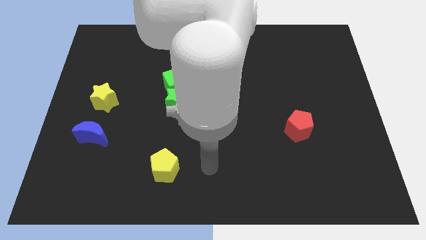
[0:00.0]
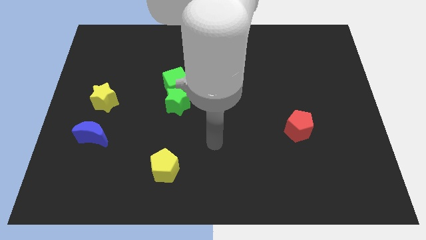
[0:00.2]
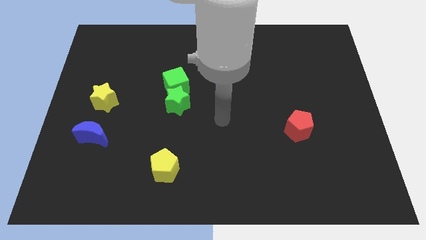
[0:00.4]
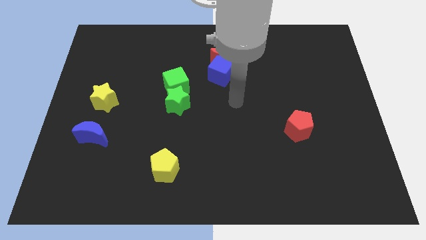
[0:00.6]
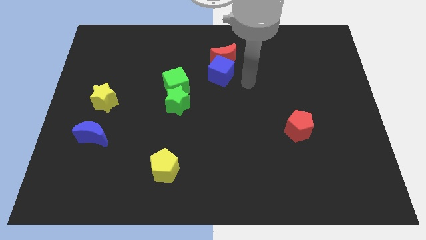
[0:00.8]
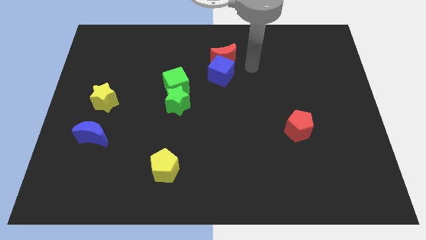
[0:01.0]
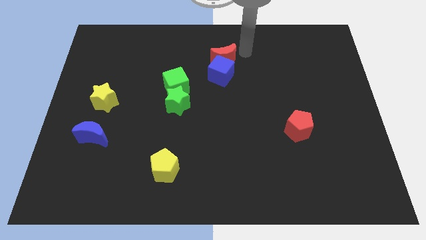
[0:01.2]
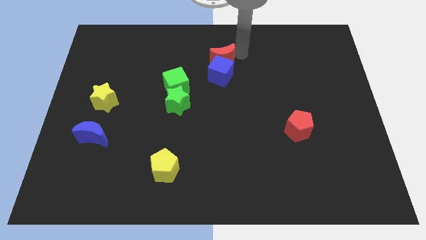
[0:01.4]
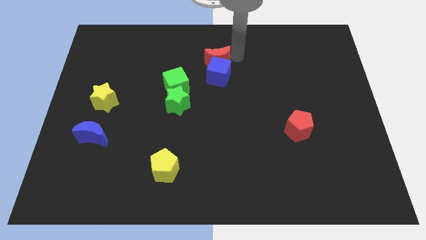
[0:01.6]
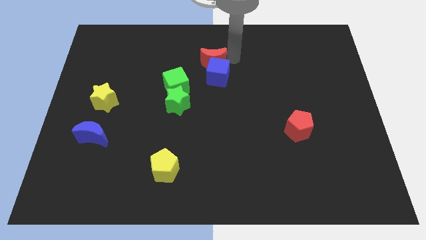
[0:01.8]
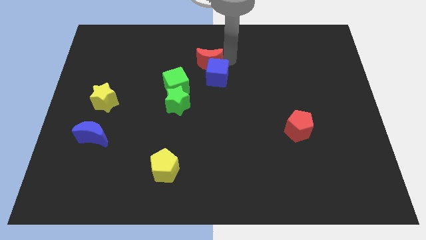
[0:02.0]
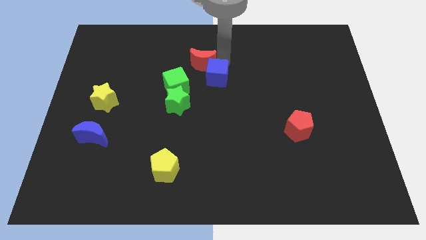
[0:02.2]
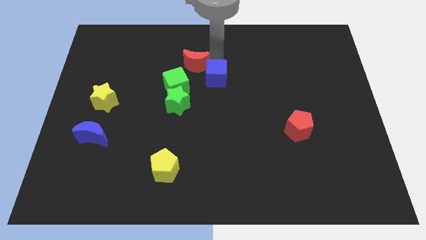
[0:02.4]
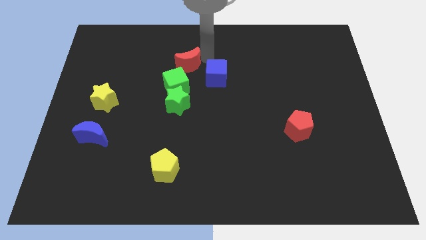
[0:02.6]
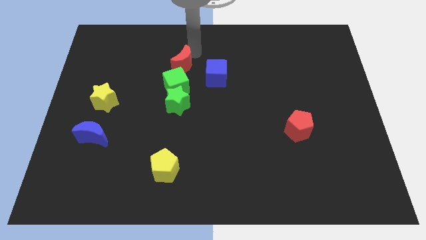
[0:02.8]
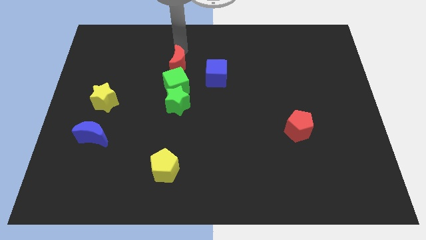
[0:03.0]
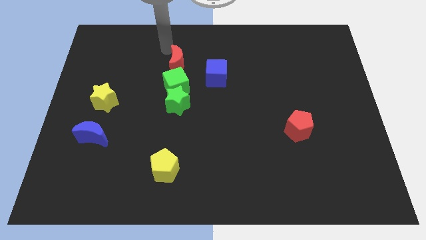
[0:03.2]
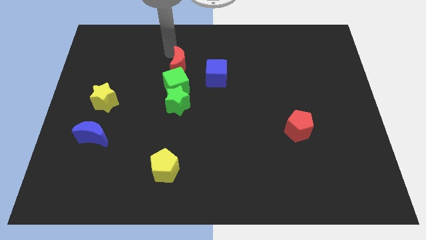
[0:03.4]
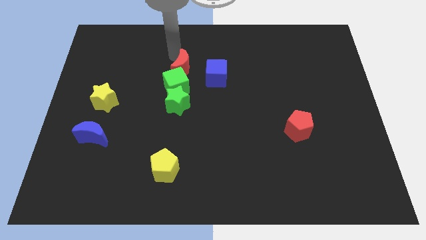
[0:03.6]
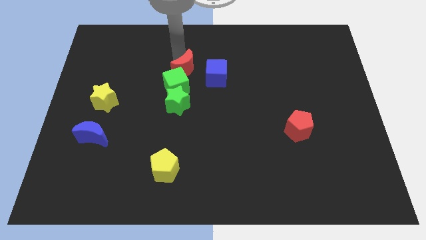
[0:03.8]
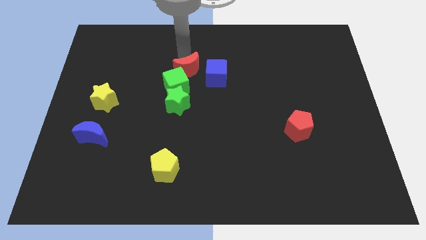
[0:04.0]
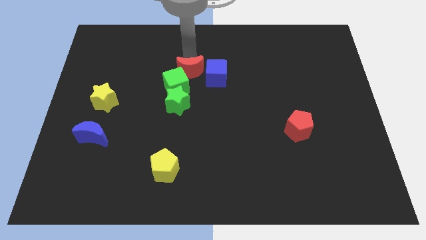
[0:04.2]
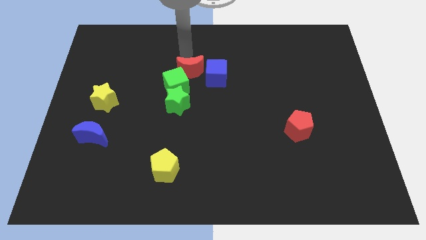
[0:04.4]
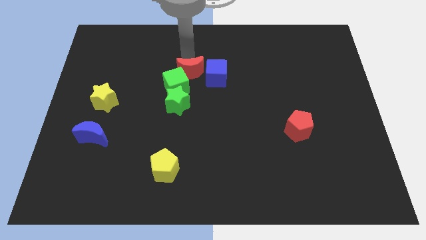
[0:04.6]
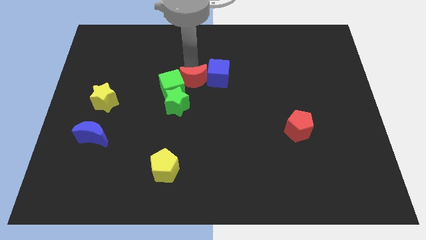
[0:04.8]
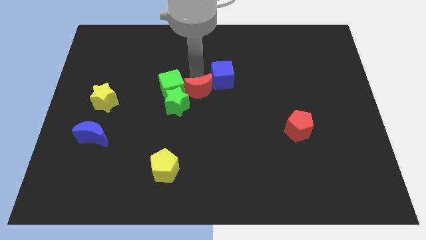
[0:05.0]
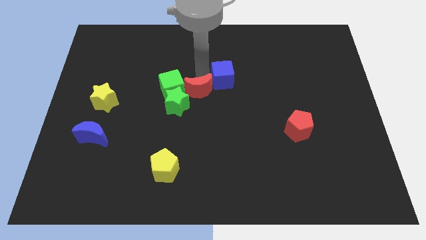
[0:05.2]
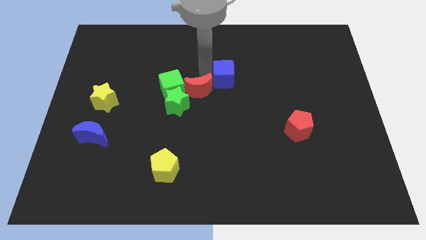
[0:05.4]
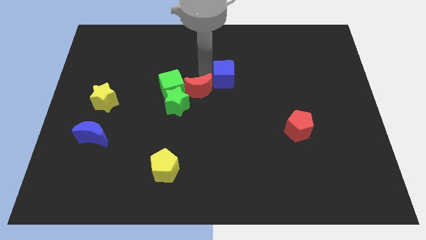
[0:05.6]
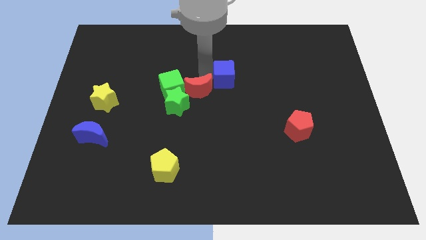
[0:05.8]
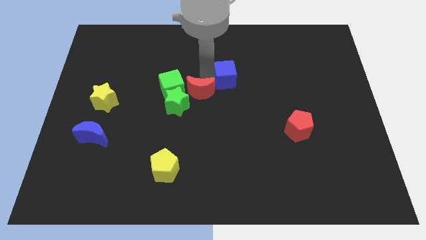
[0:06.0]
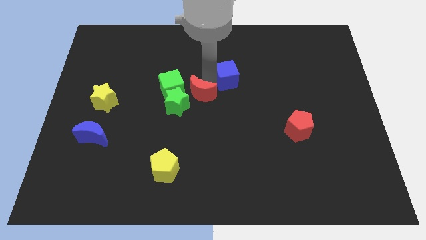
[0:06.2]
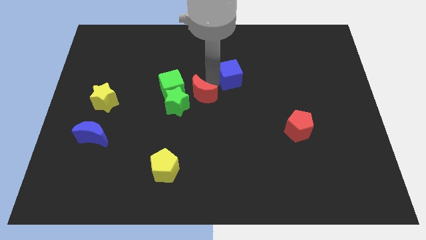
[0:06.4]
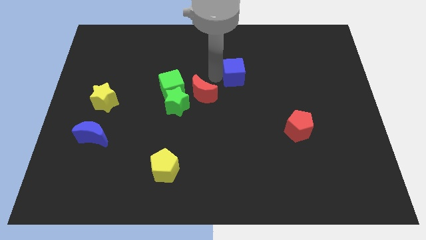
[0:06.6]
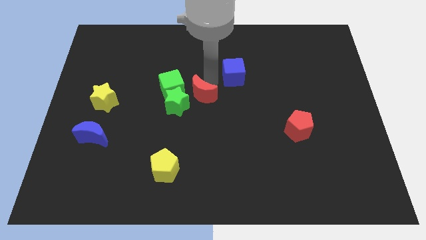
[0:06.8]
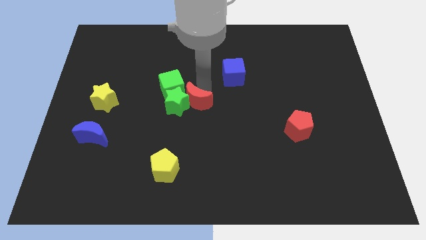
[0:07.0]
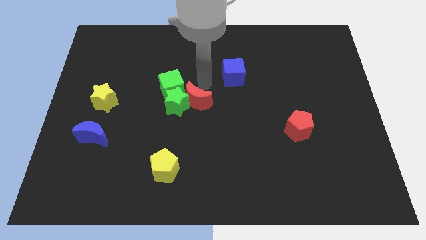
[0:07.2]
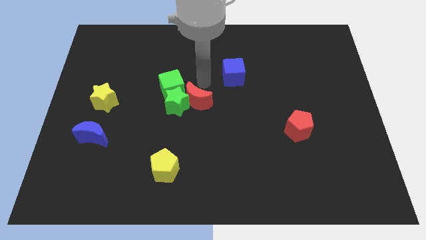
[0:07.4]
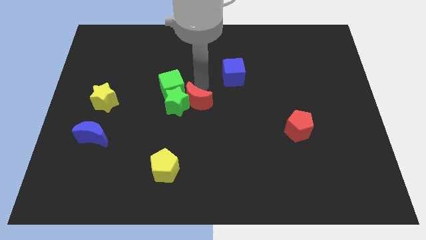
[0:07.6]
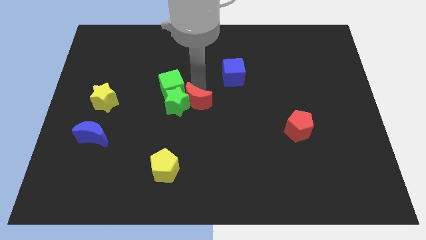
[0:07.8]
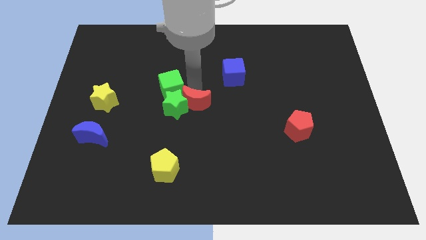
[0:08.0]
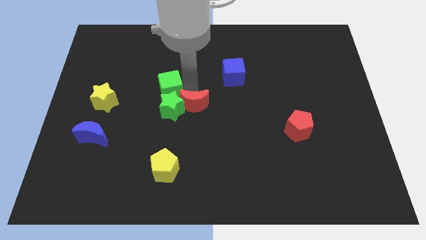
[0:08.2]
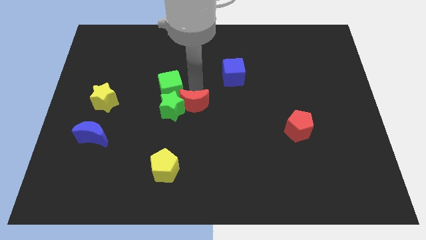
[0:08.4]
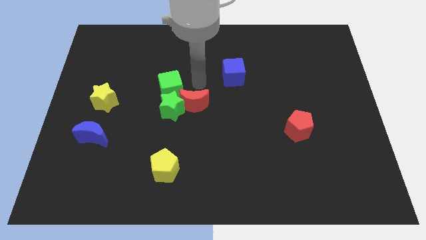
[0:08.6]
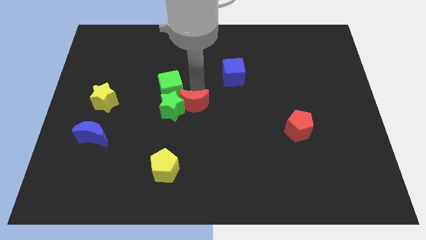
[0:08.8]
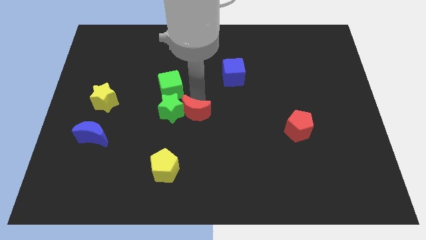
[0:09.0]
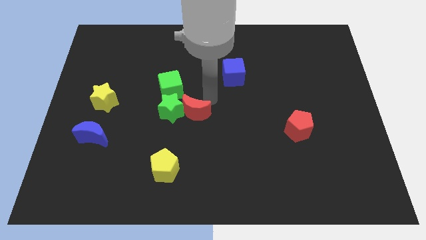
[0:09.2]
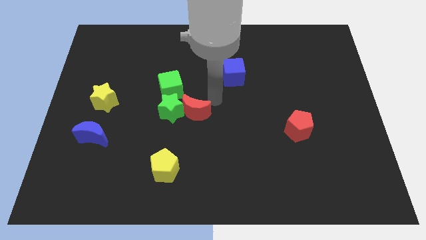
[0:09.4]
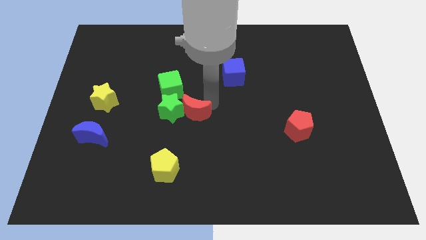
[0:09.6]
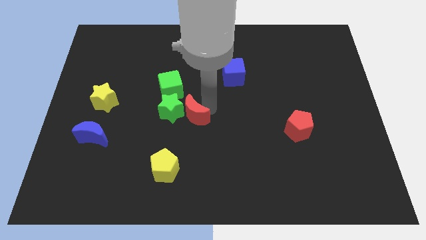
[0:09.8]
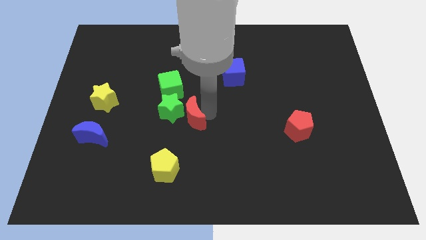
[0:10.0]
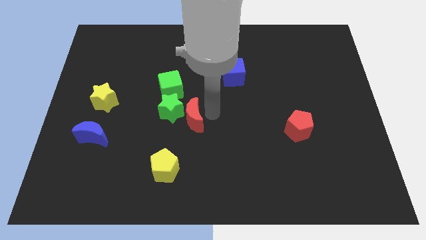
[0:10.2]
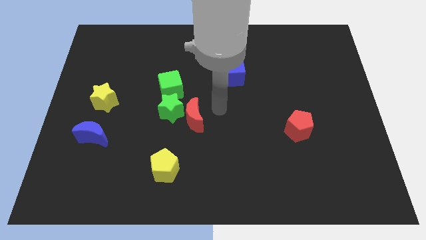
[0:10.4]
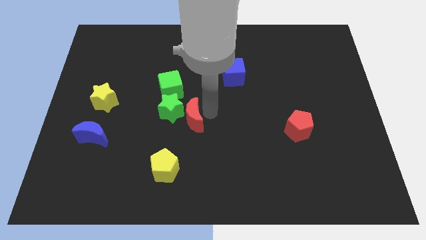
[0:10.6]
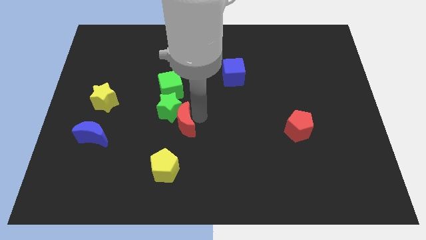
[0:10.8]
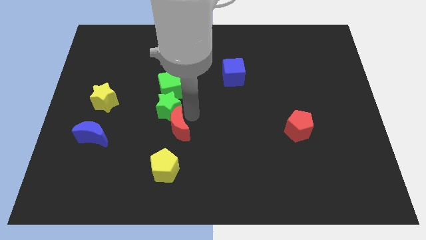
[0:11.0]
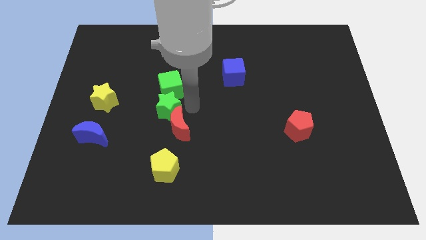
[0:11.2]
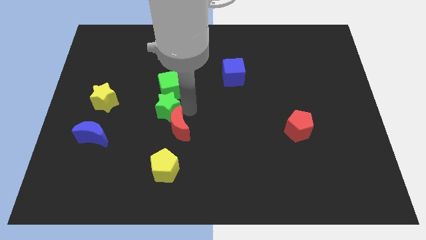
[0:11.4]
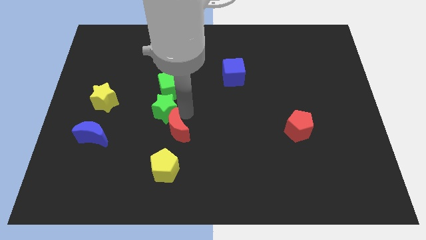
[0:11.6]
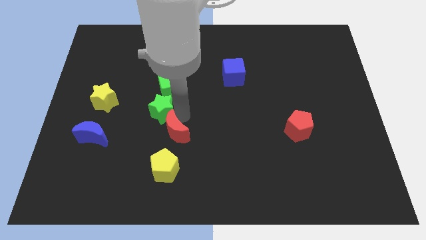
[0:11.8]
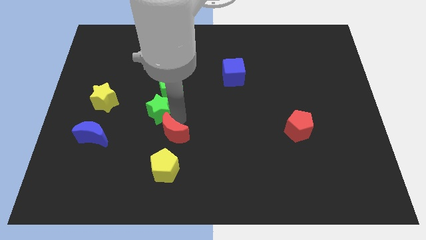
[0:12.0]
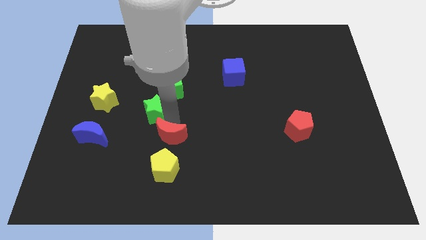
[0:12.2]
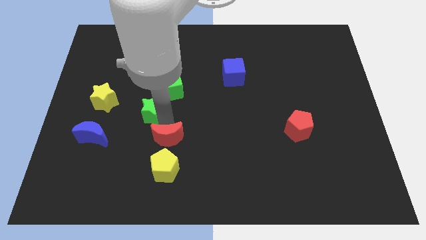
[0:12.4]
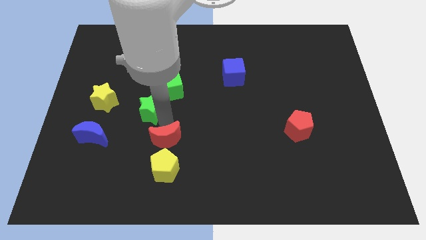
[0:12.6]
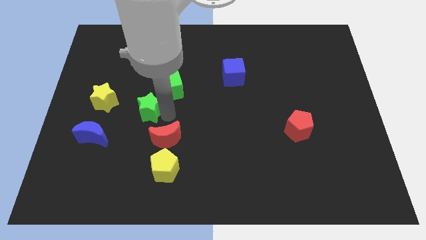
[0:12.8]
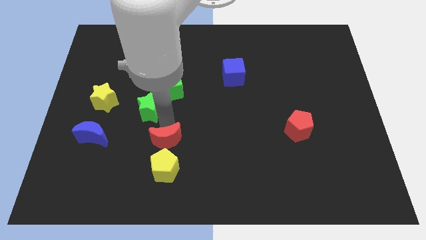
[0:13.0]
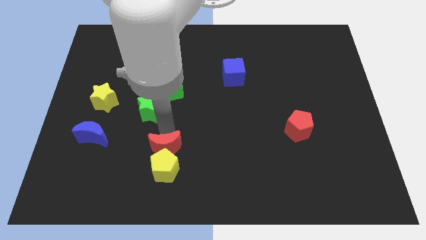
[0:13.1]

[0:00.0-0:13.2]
push the red moon close to the yellow pentagon

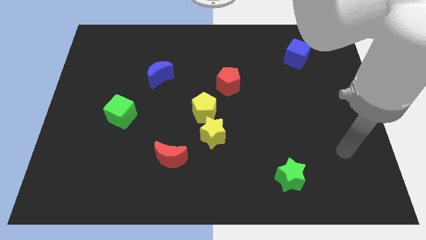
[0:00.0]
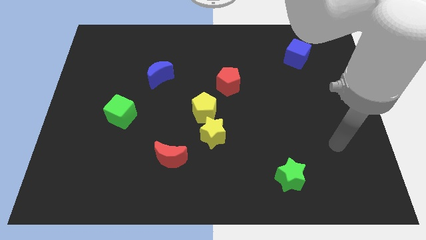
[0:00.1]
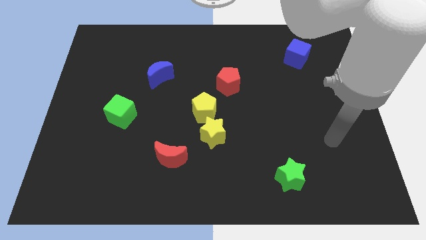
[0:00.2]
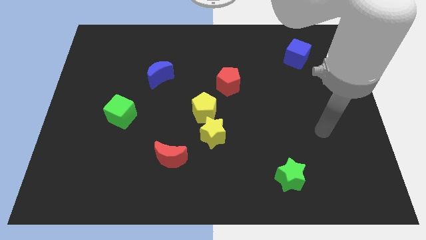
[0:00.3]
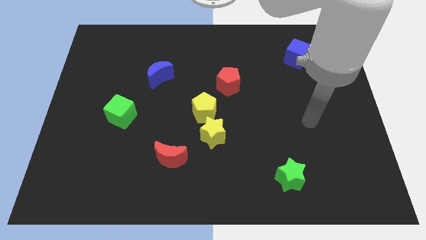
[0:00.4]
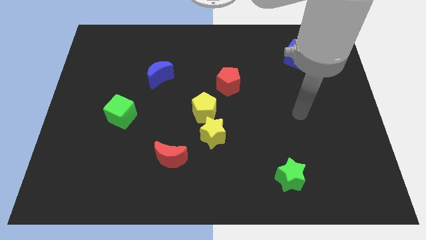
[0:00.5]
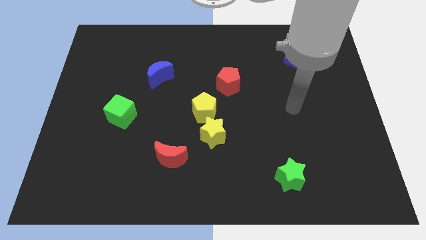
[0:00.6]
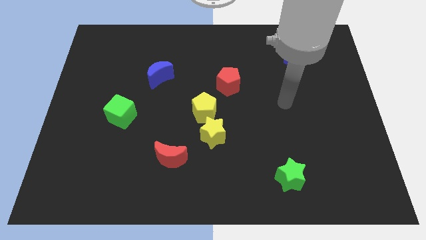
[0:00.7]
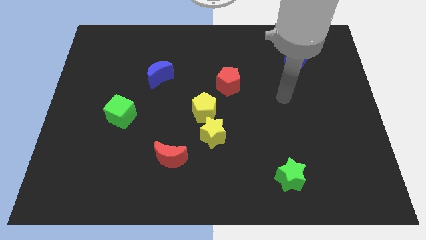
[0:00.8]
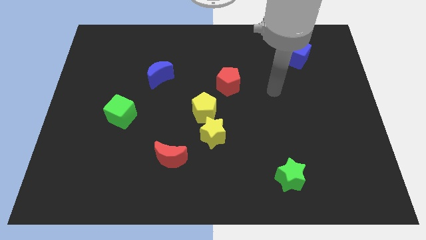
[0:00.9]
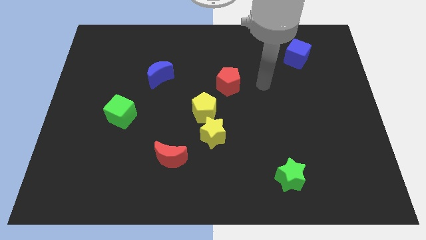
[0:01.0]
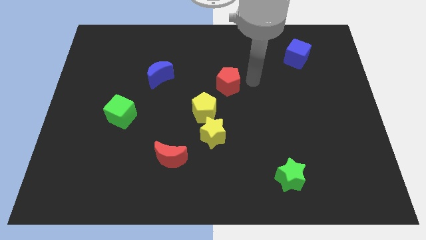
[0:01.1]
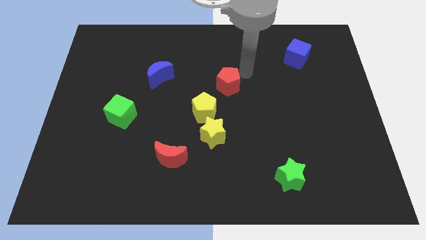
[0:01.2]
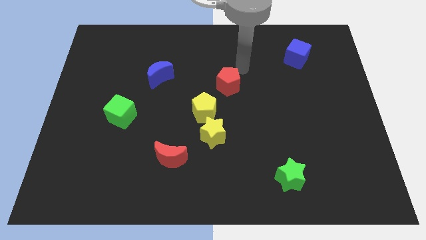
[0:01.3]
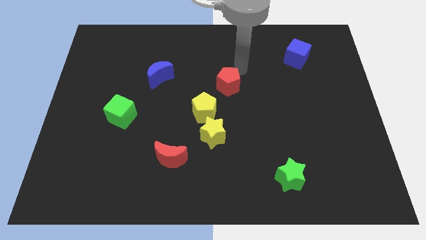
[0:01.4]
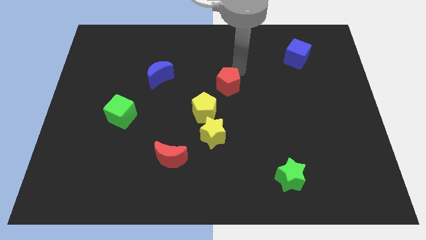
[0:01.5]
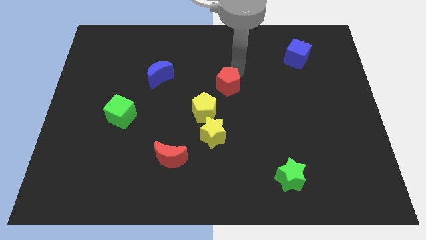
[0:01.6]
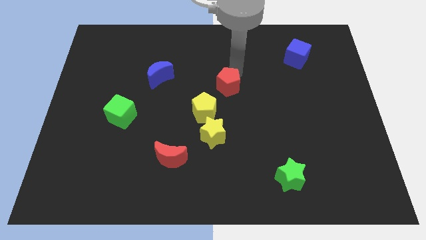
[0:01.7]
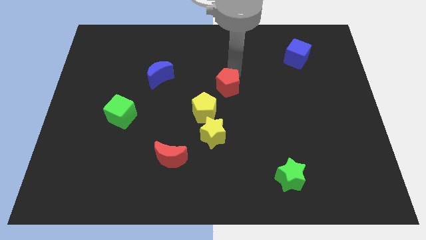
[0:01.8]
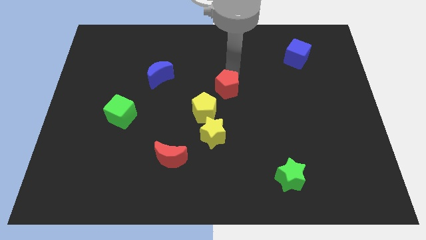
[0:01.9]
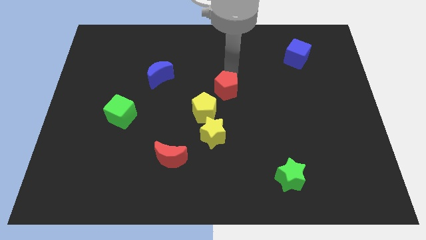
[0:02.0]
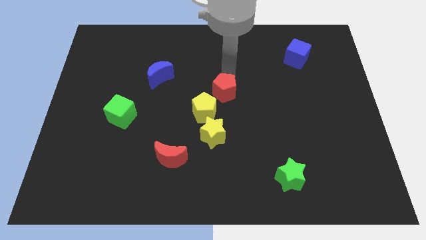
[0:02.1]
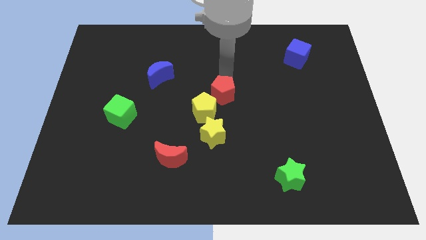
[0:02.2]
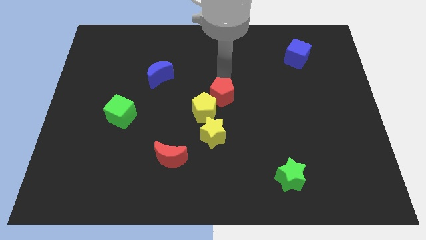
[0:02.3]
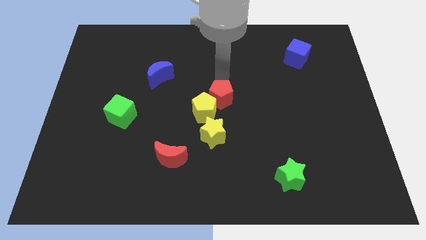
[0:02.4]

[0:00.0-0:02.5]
push the red pentagon towards the yellow pentagon
